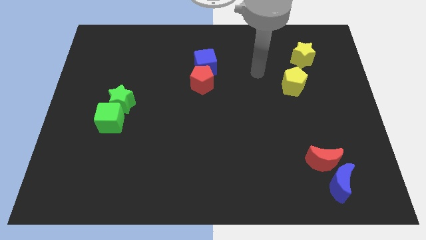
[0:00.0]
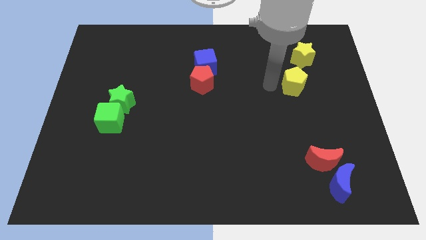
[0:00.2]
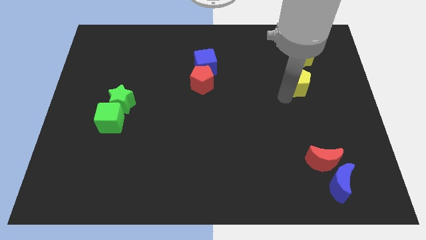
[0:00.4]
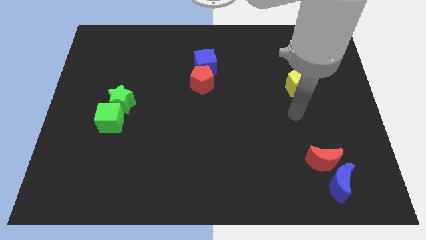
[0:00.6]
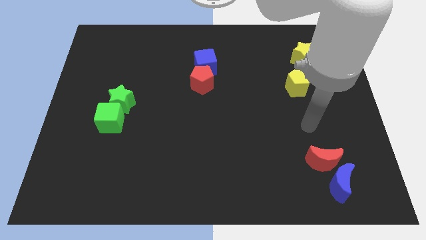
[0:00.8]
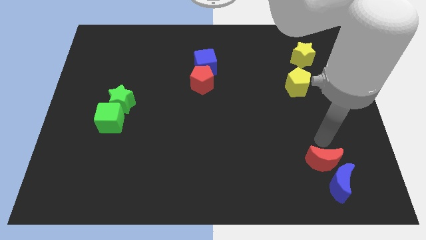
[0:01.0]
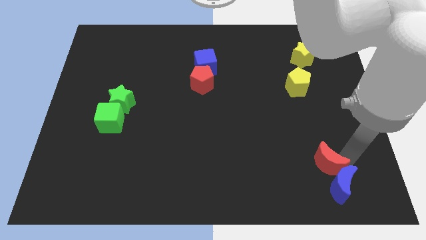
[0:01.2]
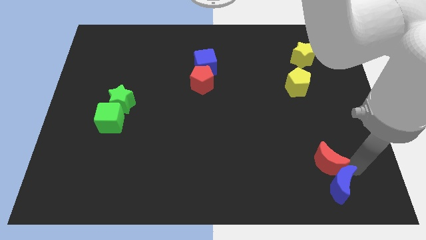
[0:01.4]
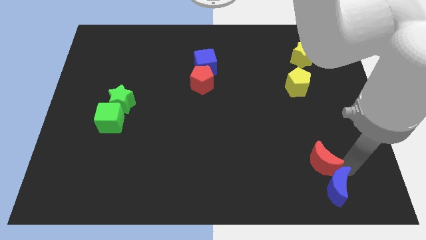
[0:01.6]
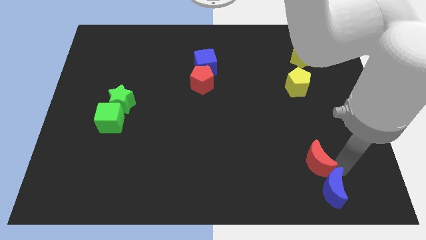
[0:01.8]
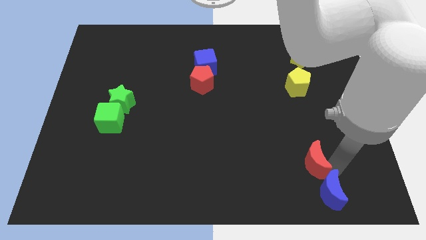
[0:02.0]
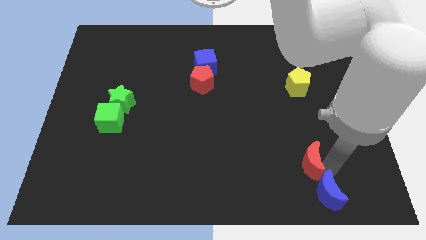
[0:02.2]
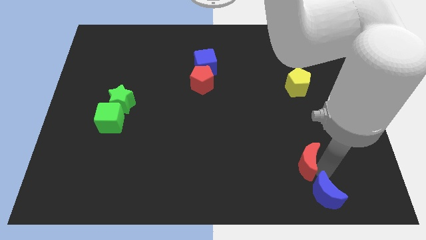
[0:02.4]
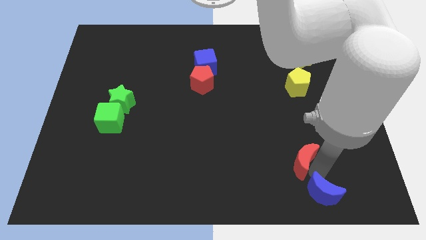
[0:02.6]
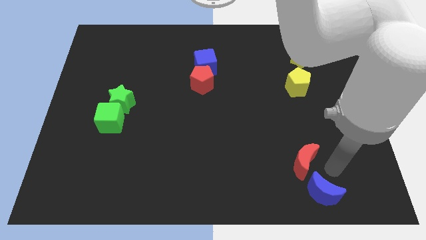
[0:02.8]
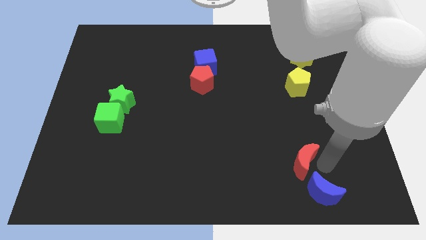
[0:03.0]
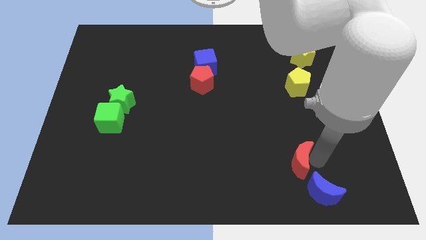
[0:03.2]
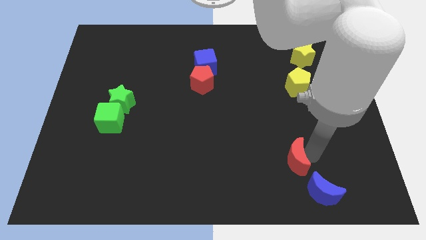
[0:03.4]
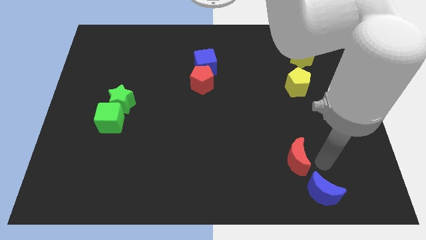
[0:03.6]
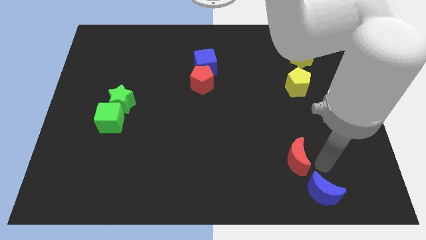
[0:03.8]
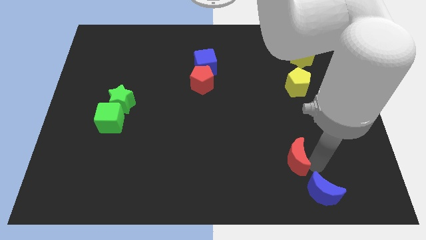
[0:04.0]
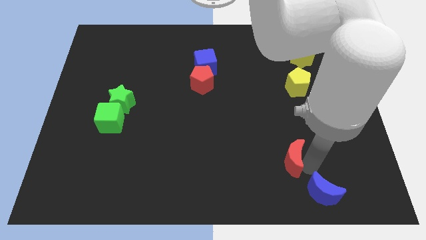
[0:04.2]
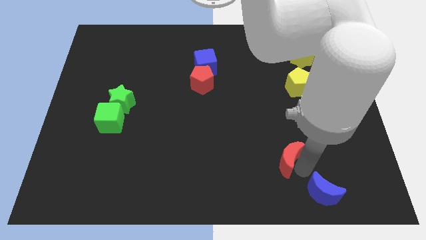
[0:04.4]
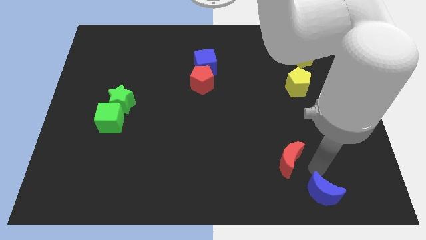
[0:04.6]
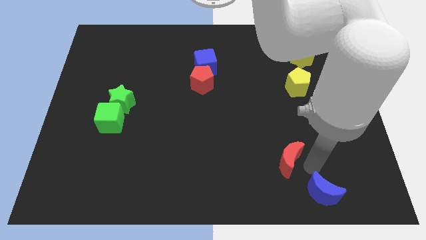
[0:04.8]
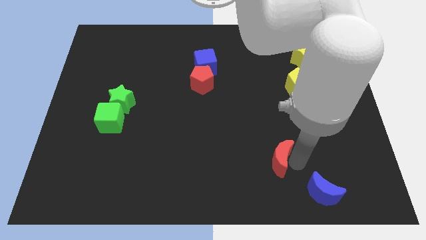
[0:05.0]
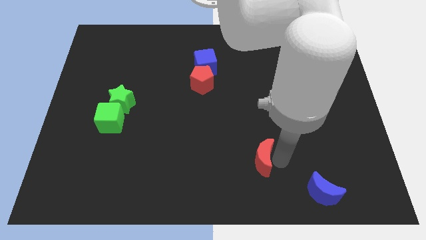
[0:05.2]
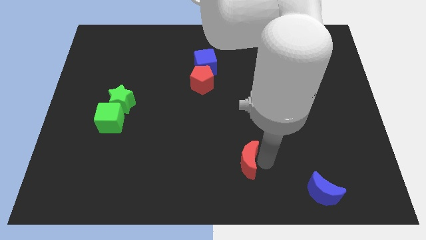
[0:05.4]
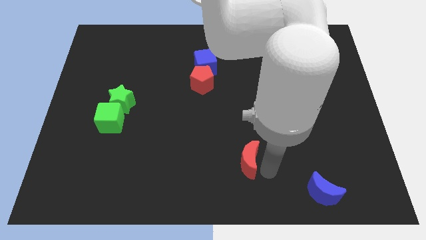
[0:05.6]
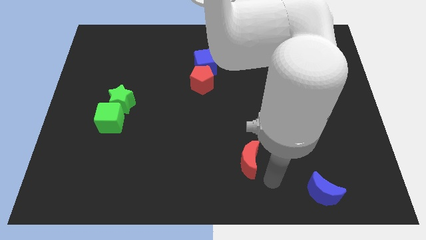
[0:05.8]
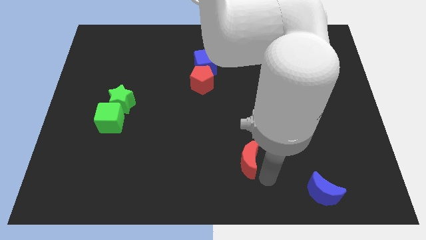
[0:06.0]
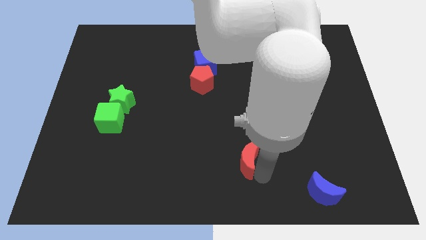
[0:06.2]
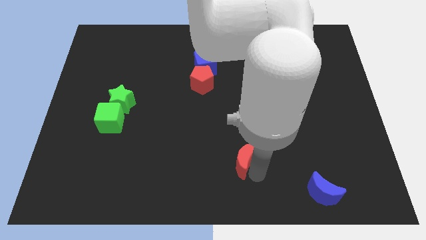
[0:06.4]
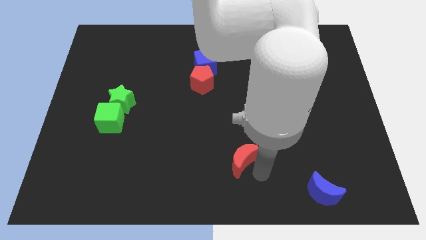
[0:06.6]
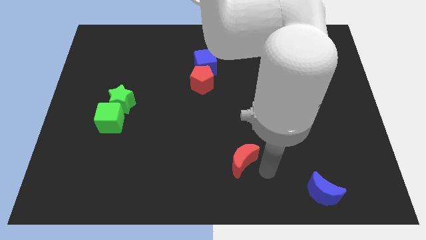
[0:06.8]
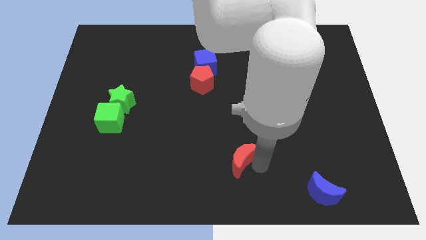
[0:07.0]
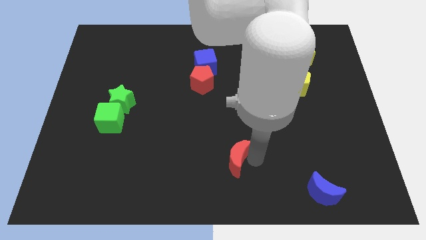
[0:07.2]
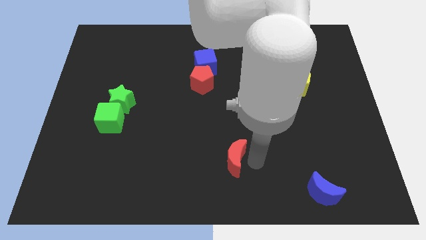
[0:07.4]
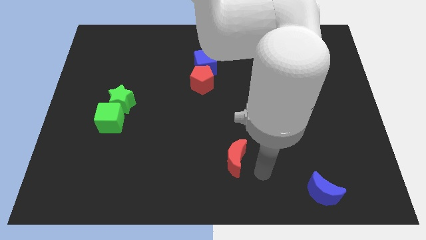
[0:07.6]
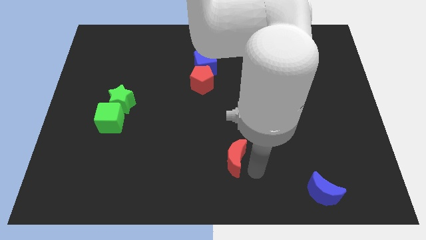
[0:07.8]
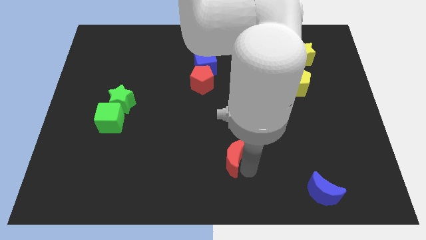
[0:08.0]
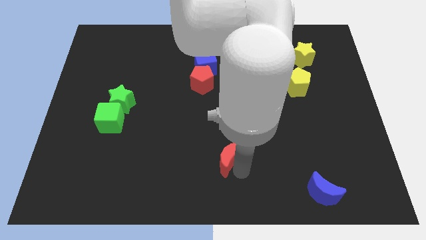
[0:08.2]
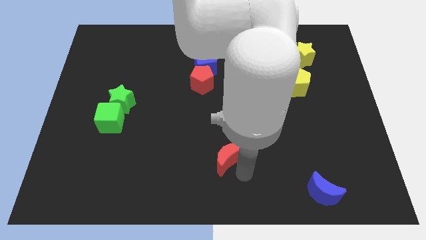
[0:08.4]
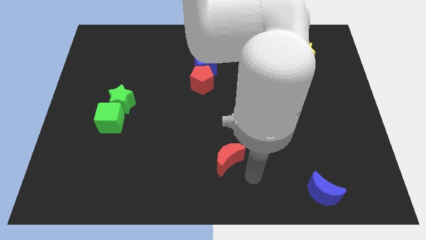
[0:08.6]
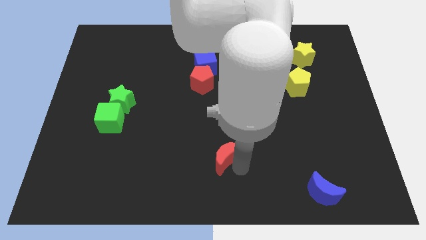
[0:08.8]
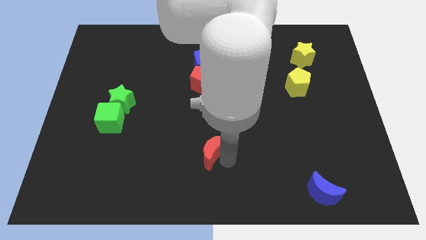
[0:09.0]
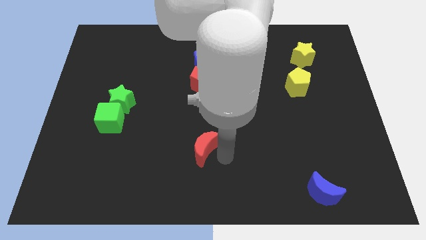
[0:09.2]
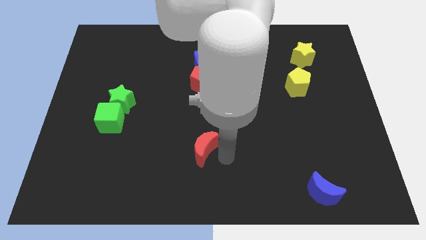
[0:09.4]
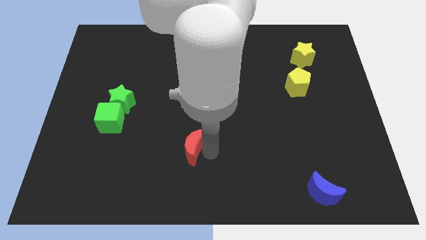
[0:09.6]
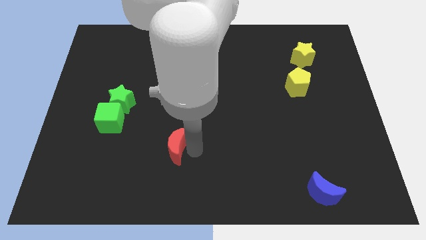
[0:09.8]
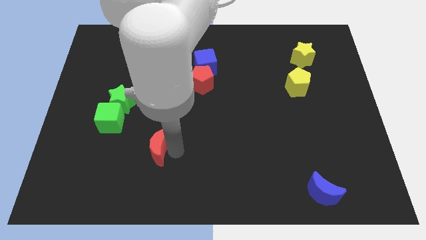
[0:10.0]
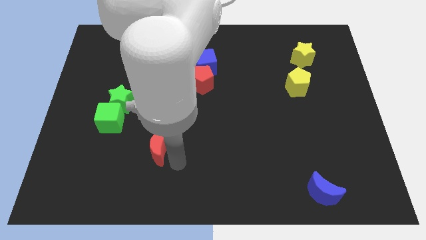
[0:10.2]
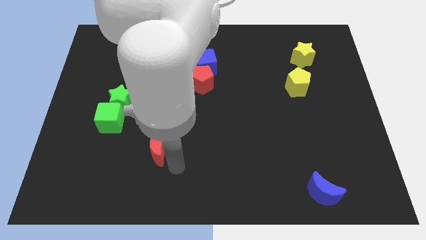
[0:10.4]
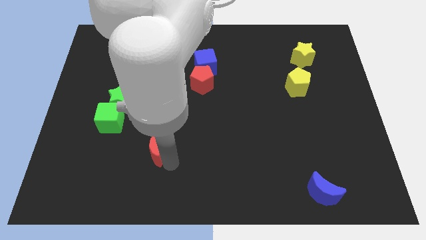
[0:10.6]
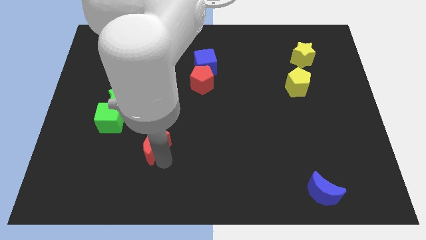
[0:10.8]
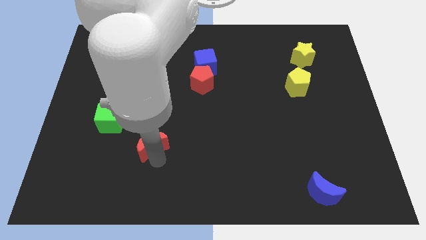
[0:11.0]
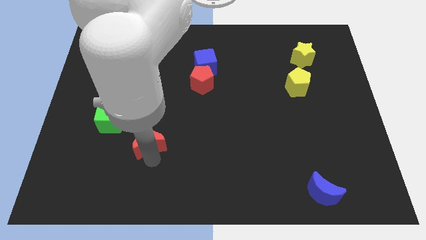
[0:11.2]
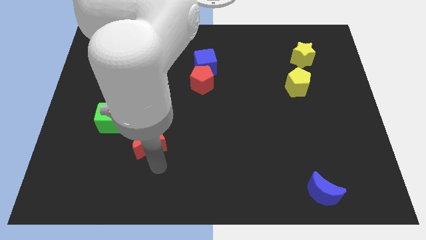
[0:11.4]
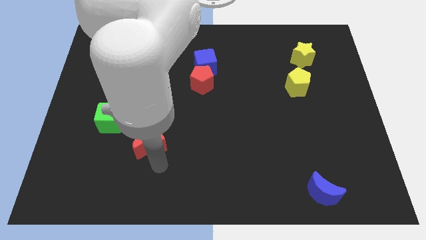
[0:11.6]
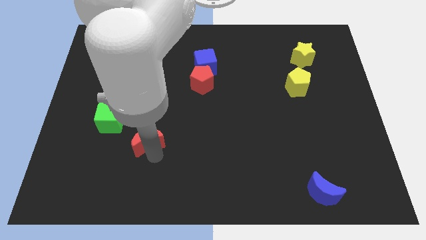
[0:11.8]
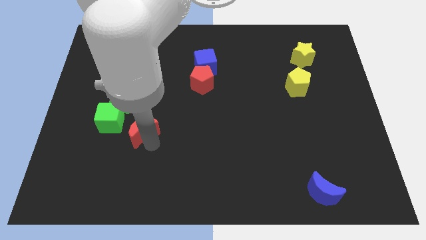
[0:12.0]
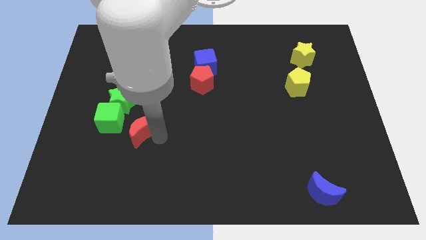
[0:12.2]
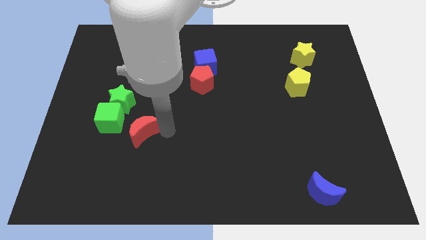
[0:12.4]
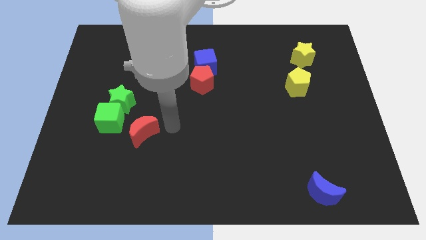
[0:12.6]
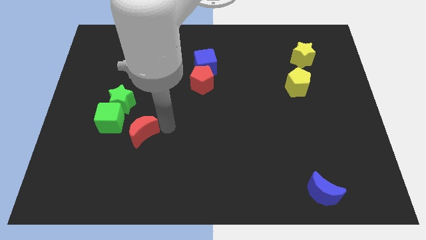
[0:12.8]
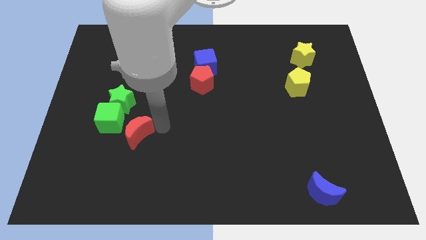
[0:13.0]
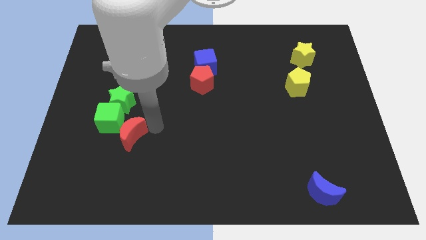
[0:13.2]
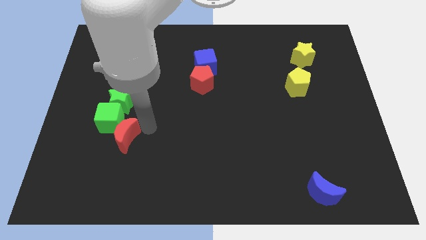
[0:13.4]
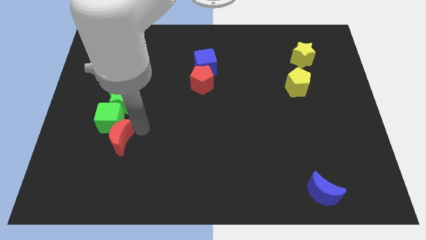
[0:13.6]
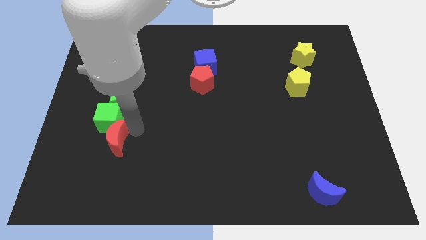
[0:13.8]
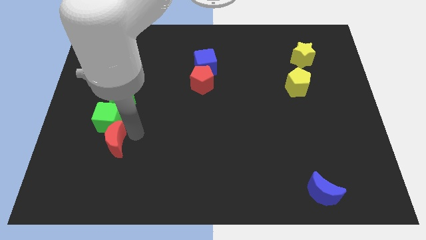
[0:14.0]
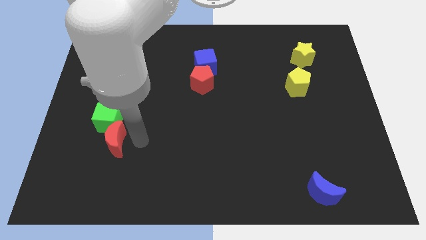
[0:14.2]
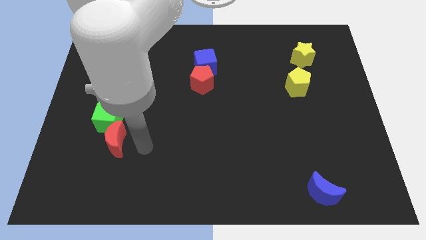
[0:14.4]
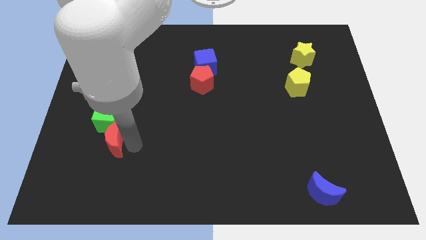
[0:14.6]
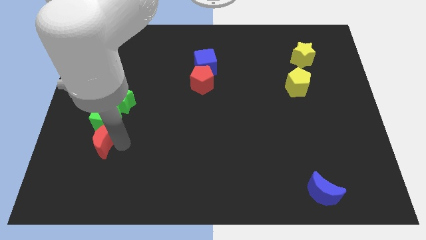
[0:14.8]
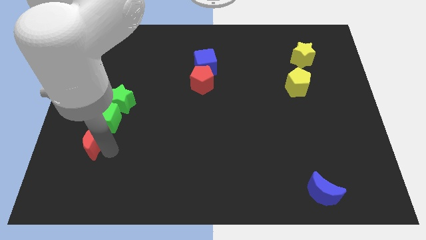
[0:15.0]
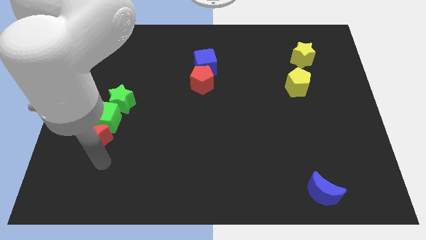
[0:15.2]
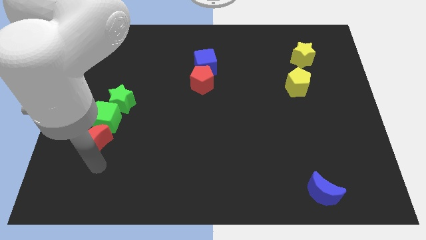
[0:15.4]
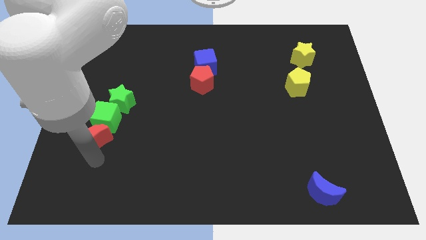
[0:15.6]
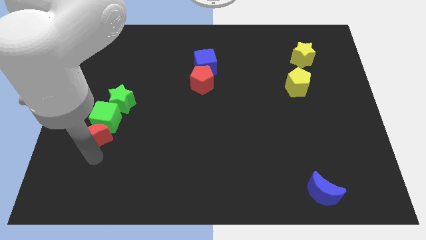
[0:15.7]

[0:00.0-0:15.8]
push the red moon to the bottom left side of the green star

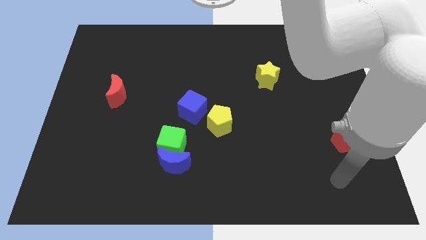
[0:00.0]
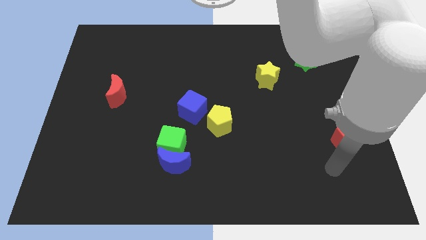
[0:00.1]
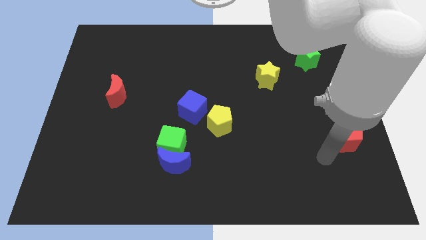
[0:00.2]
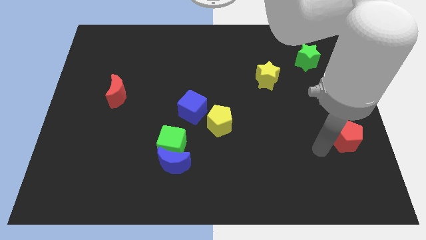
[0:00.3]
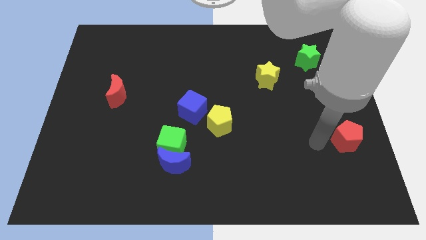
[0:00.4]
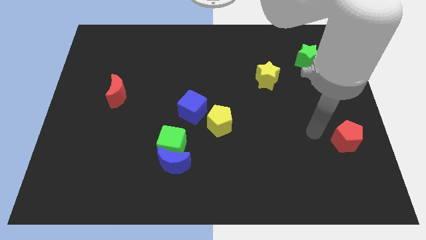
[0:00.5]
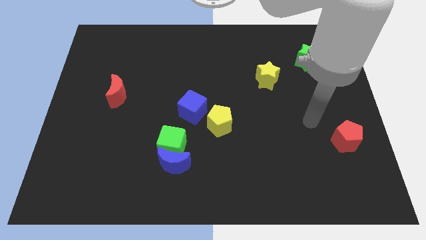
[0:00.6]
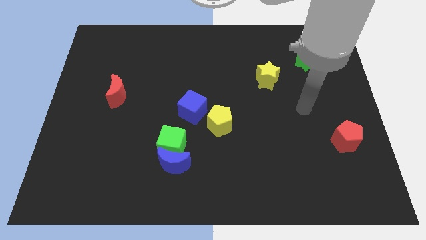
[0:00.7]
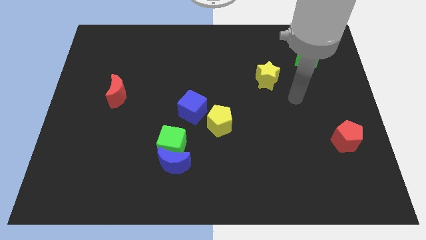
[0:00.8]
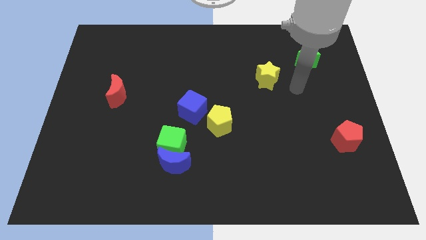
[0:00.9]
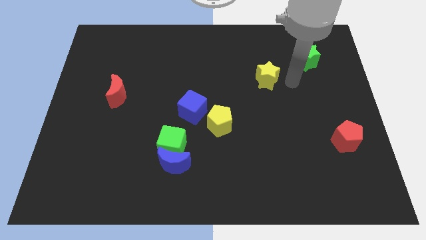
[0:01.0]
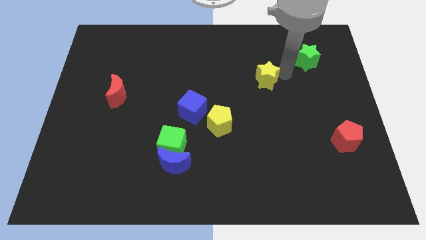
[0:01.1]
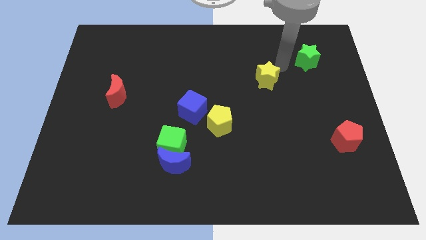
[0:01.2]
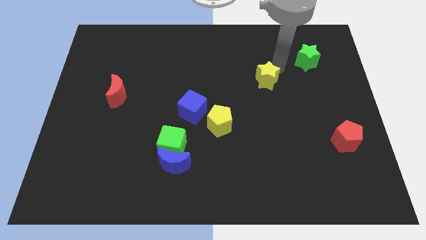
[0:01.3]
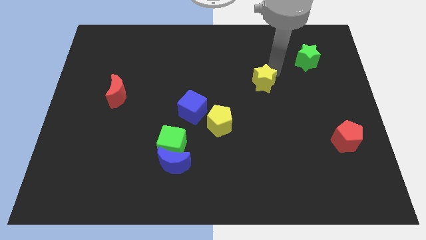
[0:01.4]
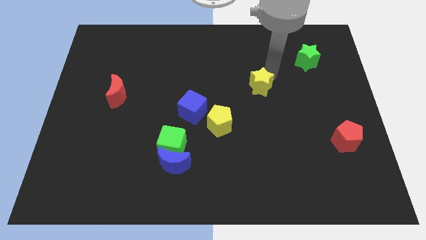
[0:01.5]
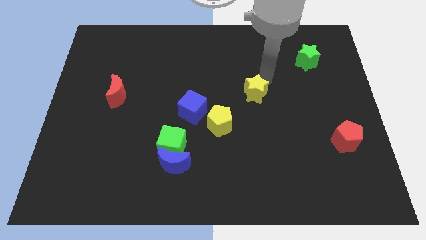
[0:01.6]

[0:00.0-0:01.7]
push the yellow star to the top right of the yellow pentagon
